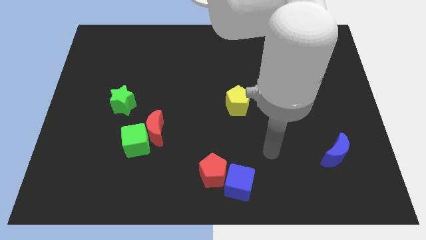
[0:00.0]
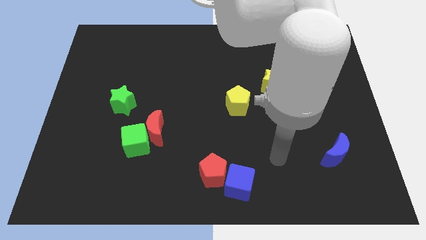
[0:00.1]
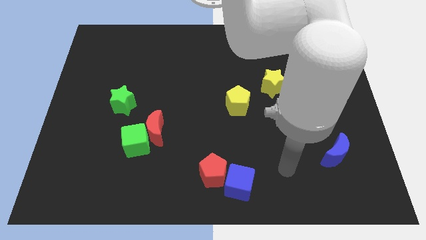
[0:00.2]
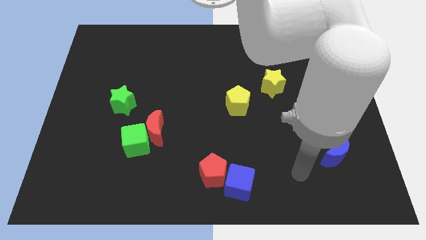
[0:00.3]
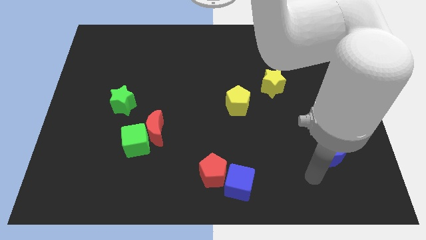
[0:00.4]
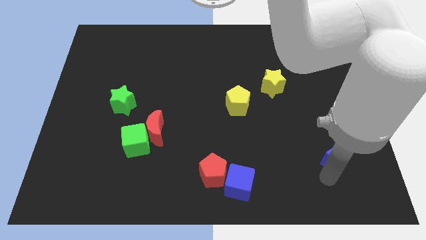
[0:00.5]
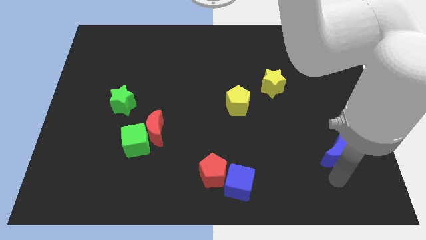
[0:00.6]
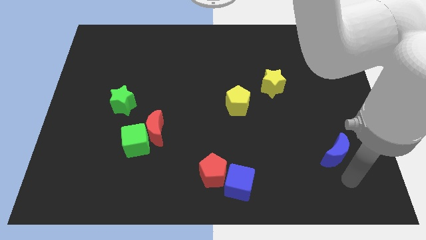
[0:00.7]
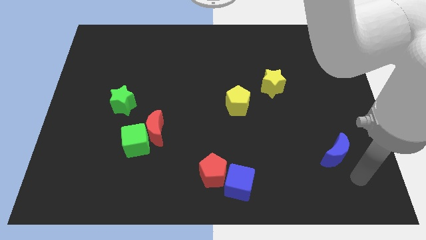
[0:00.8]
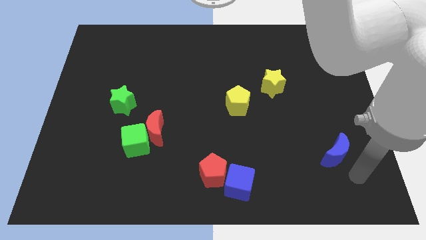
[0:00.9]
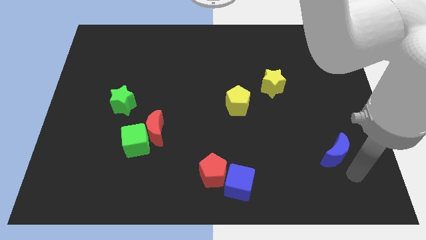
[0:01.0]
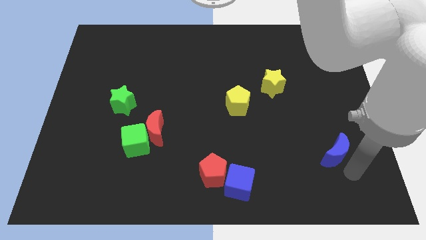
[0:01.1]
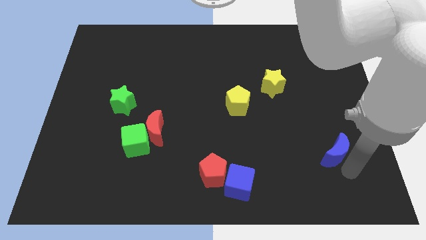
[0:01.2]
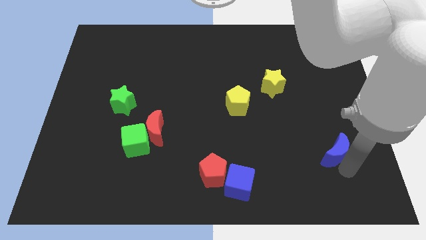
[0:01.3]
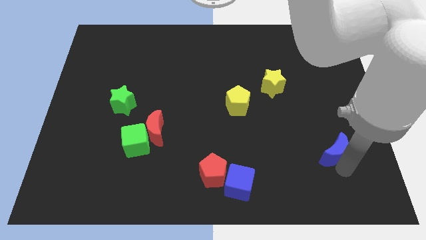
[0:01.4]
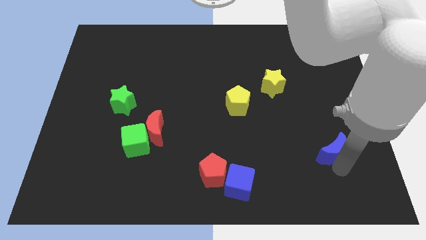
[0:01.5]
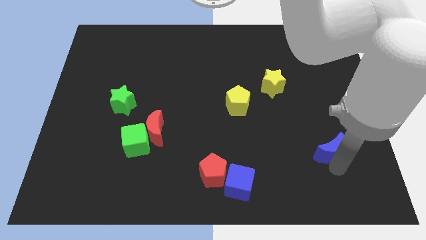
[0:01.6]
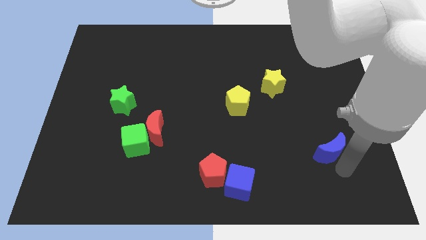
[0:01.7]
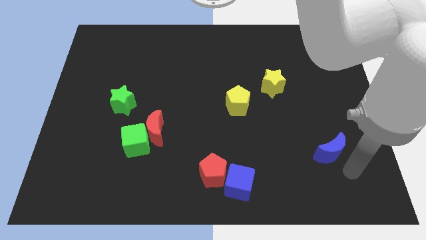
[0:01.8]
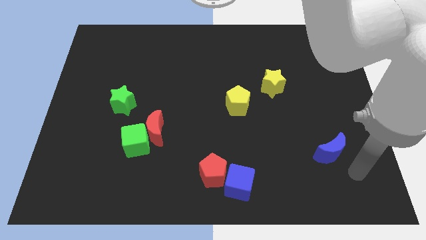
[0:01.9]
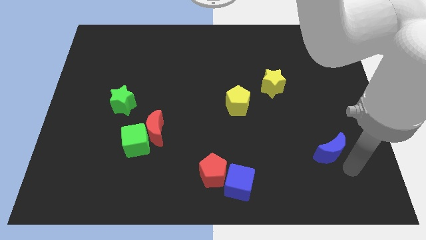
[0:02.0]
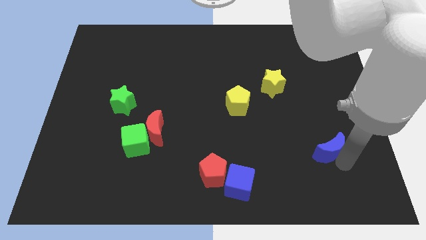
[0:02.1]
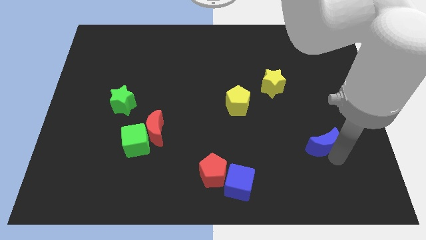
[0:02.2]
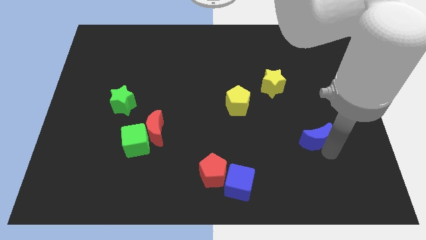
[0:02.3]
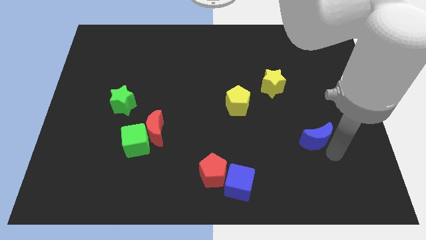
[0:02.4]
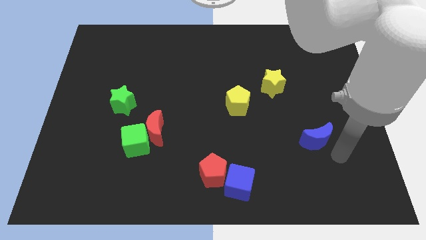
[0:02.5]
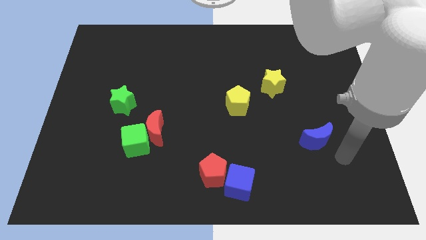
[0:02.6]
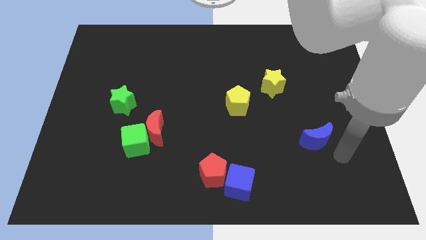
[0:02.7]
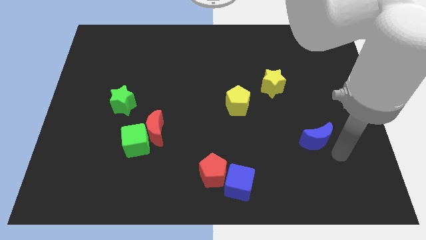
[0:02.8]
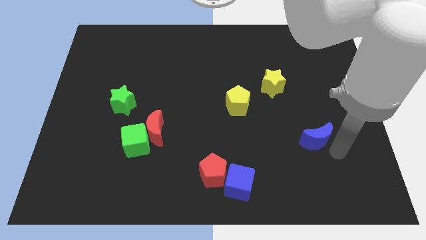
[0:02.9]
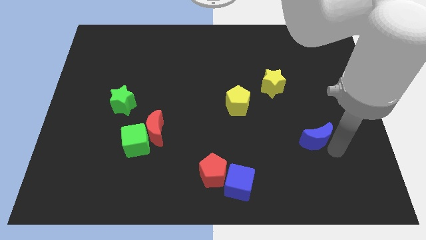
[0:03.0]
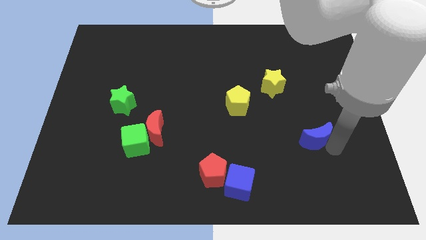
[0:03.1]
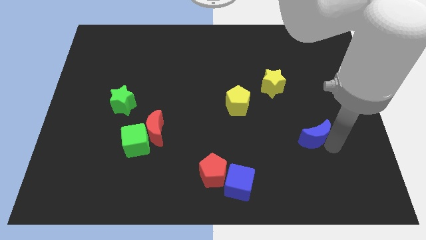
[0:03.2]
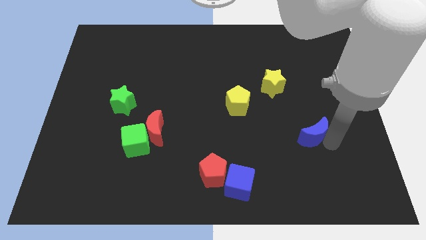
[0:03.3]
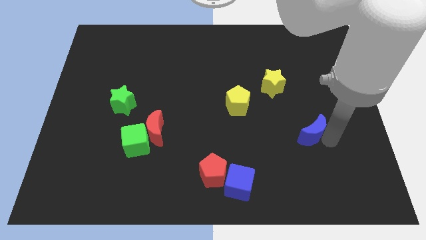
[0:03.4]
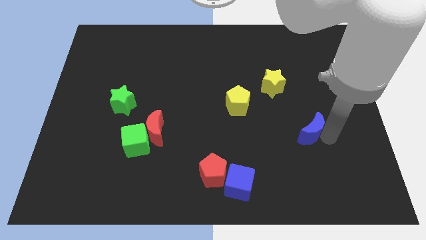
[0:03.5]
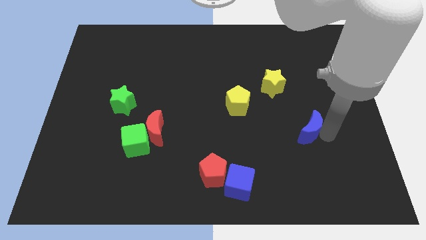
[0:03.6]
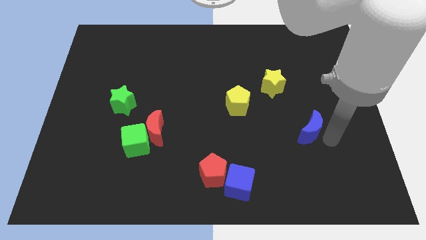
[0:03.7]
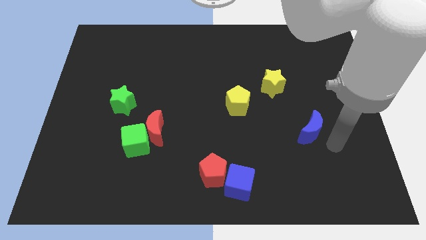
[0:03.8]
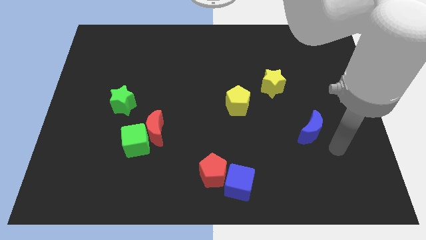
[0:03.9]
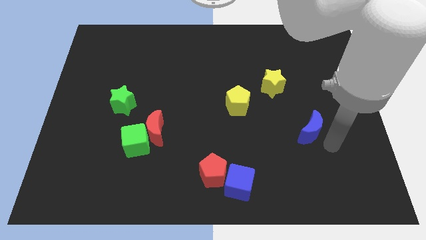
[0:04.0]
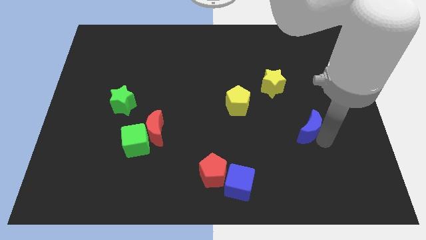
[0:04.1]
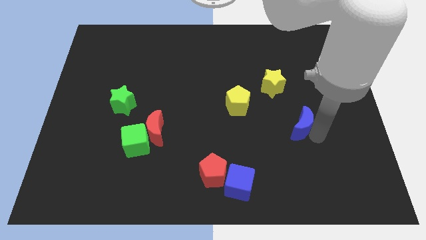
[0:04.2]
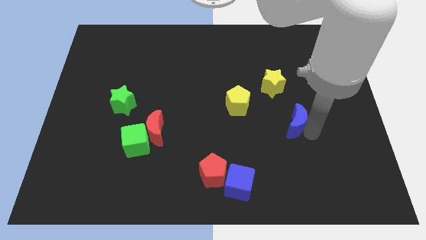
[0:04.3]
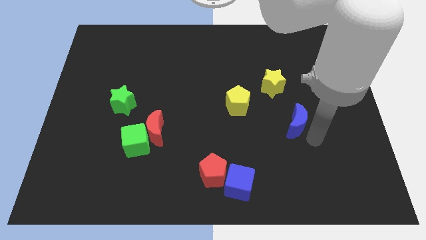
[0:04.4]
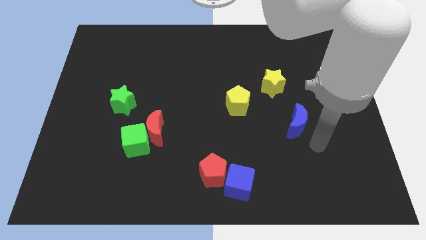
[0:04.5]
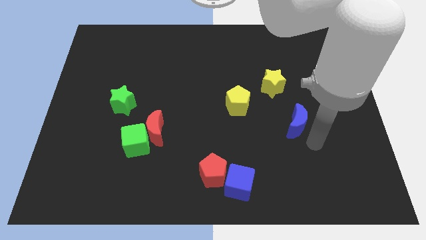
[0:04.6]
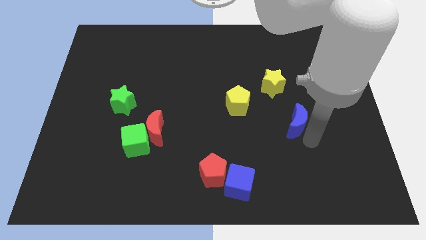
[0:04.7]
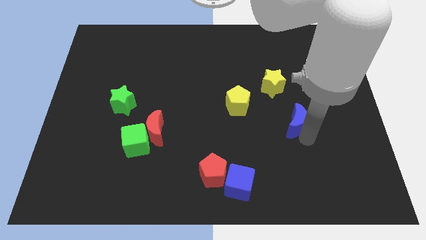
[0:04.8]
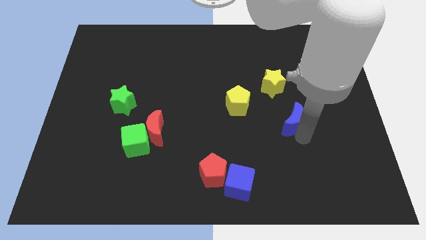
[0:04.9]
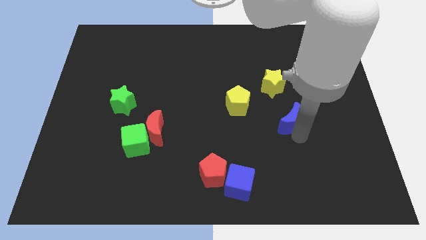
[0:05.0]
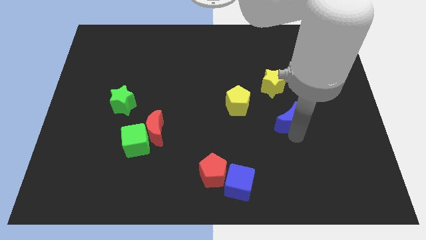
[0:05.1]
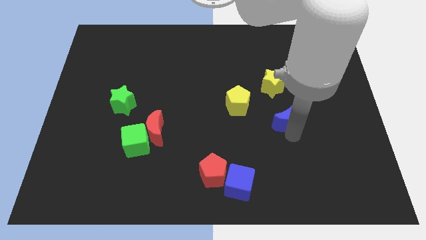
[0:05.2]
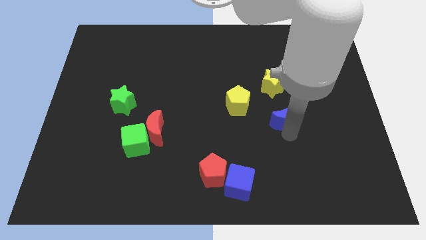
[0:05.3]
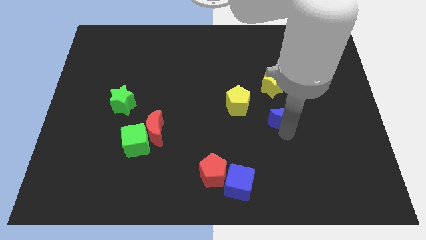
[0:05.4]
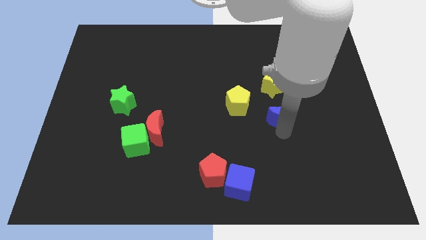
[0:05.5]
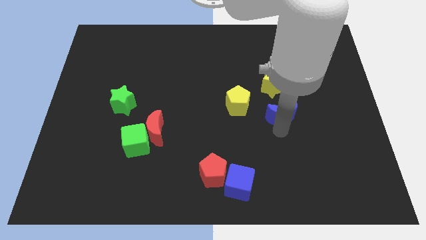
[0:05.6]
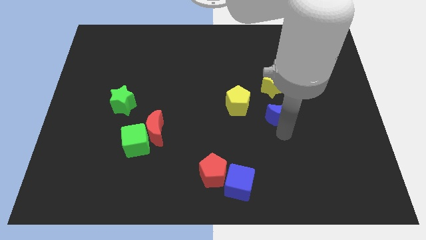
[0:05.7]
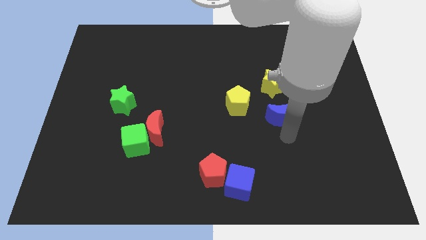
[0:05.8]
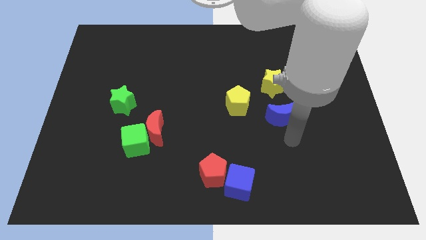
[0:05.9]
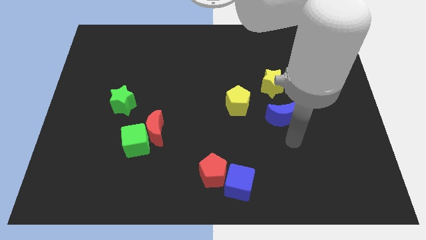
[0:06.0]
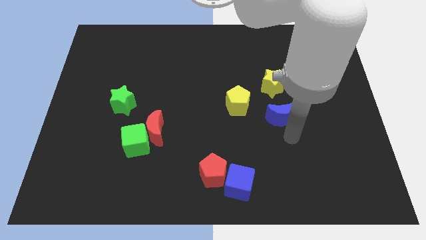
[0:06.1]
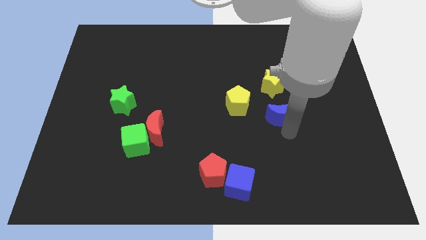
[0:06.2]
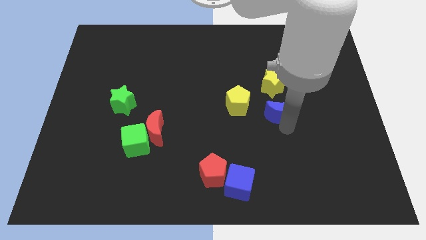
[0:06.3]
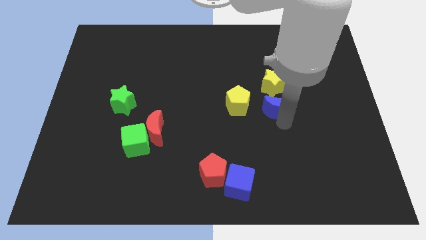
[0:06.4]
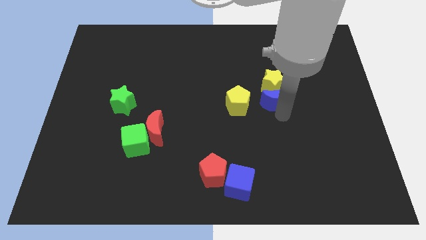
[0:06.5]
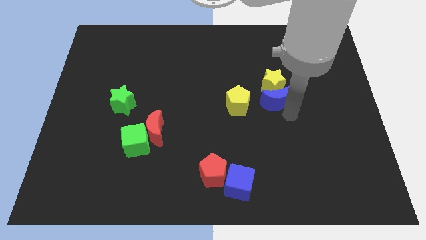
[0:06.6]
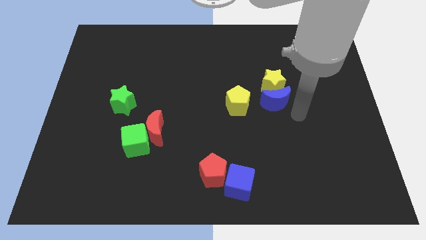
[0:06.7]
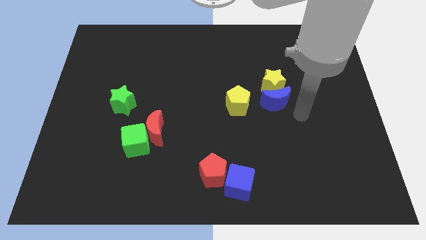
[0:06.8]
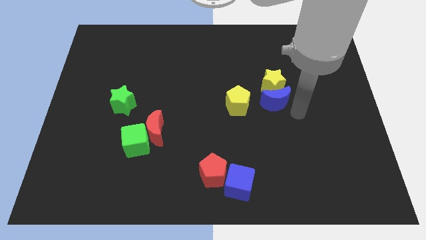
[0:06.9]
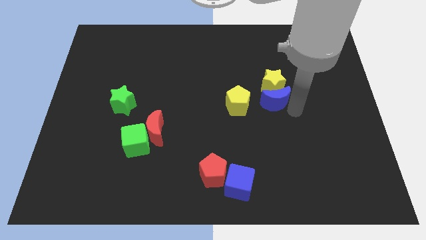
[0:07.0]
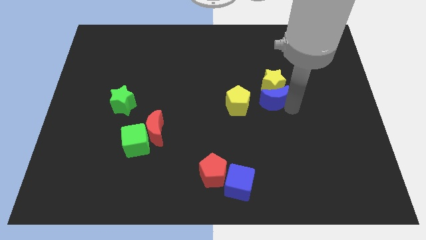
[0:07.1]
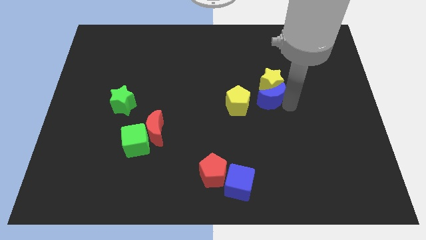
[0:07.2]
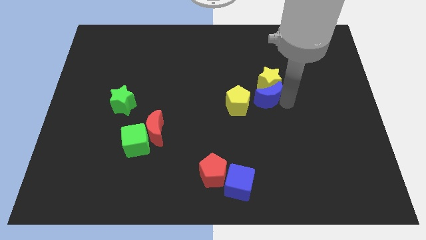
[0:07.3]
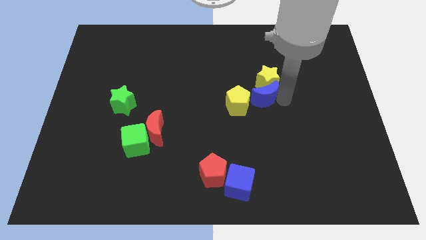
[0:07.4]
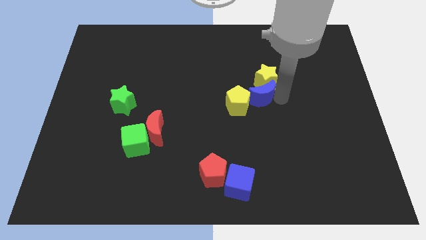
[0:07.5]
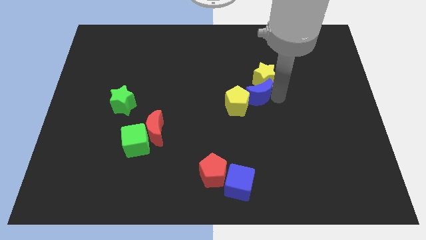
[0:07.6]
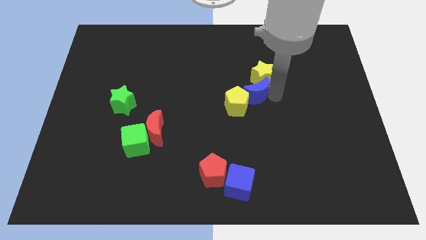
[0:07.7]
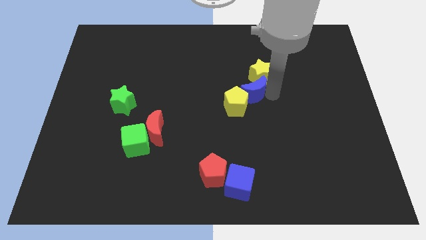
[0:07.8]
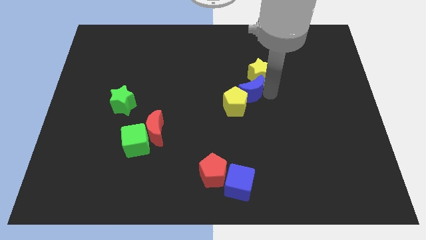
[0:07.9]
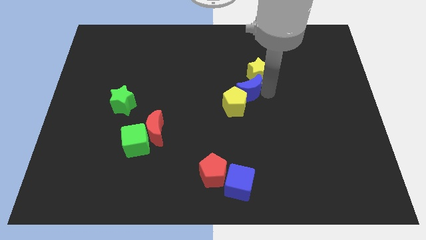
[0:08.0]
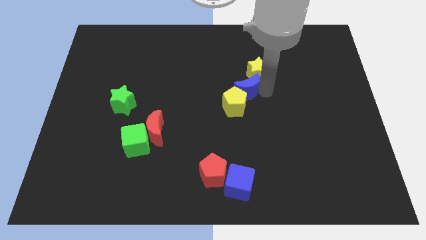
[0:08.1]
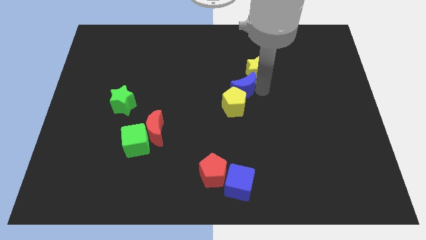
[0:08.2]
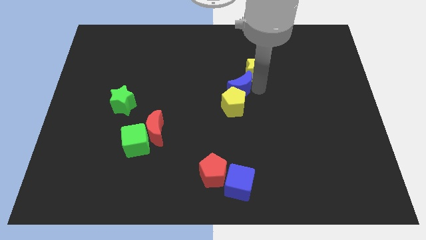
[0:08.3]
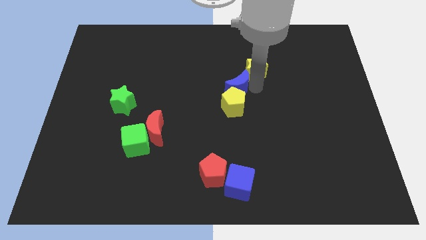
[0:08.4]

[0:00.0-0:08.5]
move the blue moon to the top left side of the yellow pentagon
